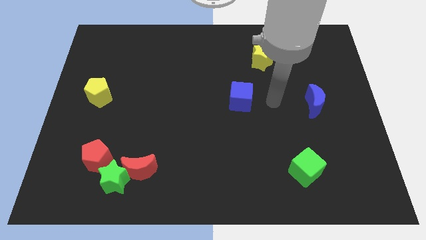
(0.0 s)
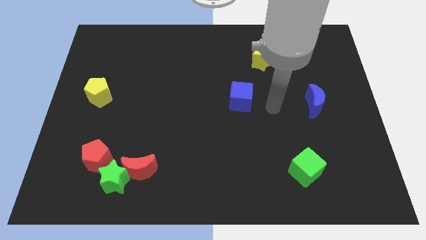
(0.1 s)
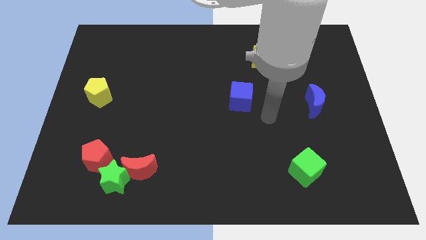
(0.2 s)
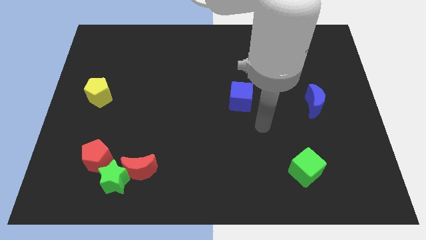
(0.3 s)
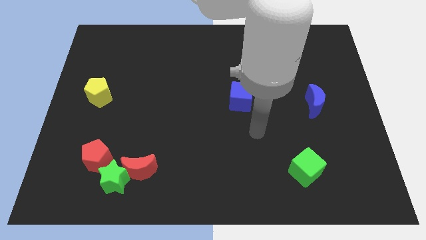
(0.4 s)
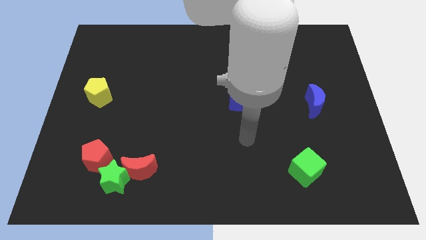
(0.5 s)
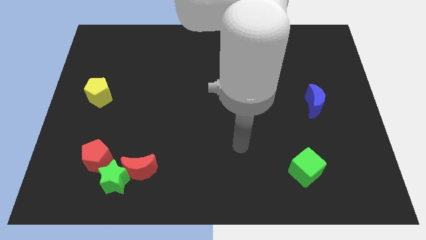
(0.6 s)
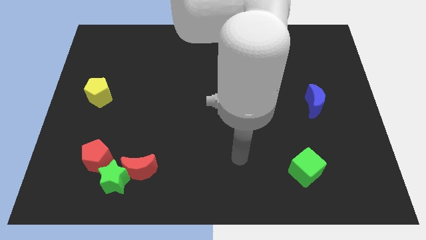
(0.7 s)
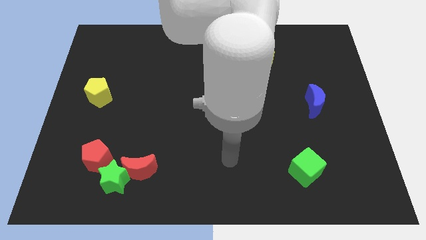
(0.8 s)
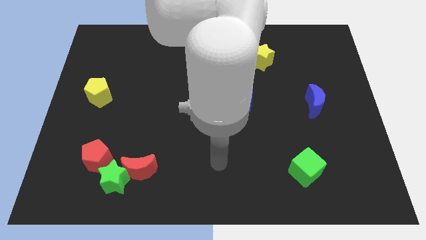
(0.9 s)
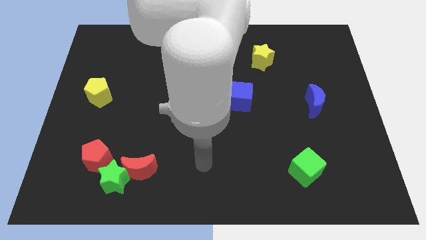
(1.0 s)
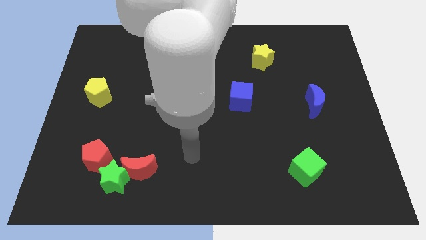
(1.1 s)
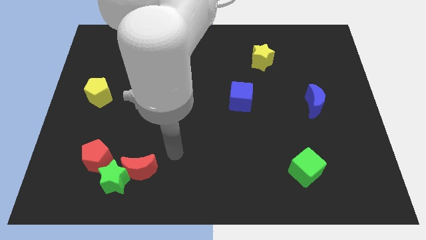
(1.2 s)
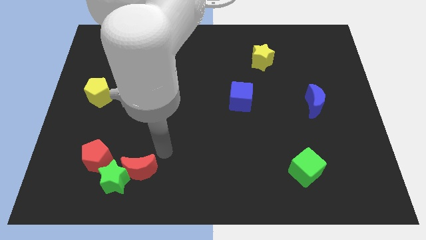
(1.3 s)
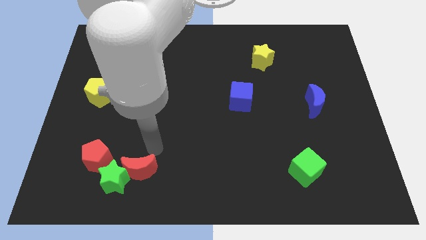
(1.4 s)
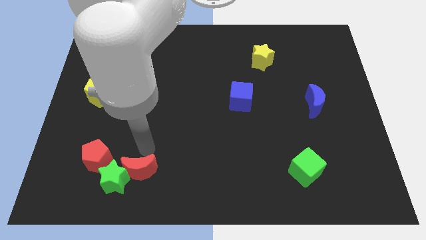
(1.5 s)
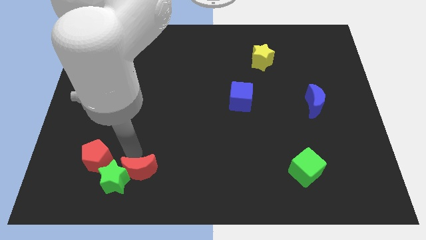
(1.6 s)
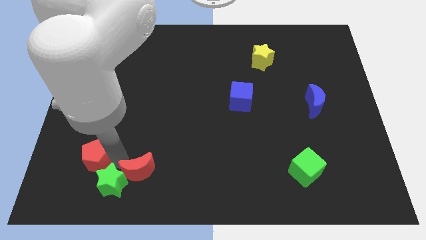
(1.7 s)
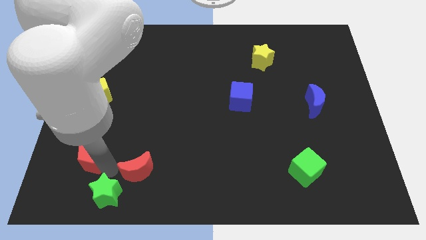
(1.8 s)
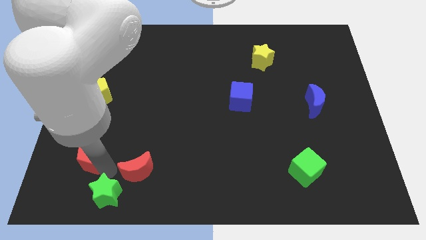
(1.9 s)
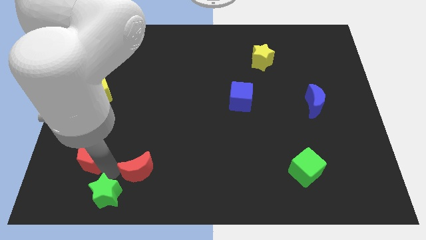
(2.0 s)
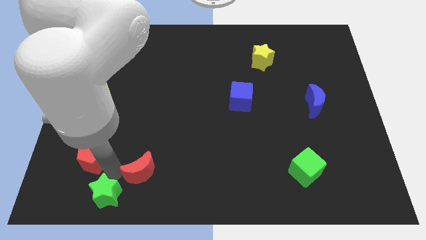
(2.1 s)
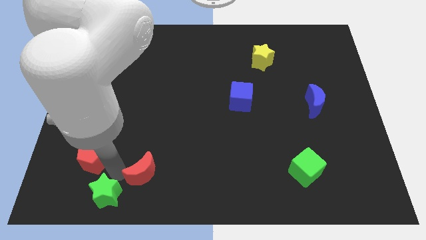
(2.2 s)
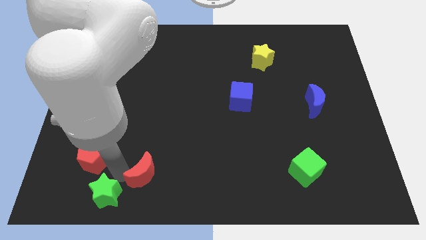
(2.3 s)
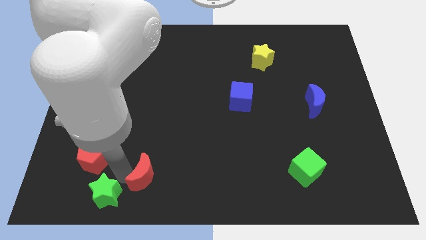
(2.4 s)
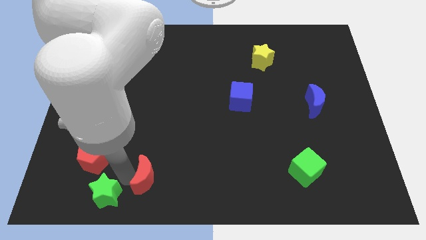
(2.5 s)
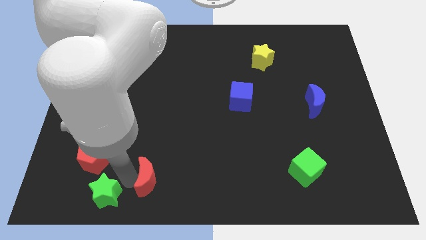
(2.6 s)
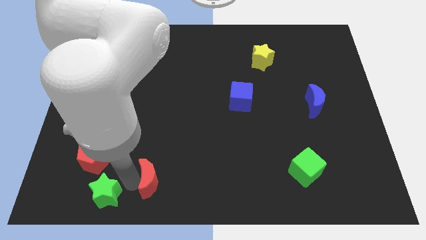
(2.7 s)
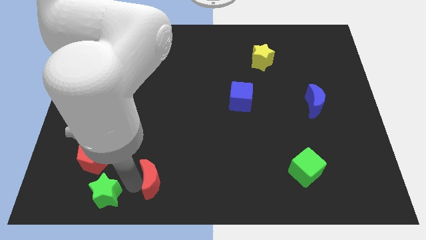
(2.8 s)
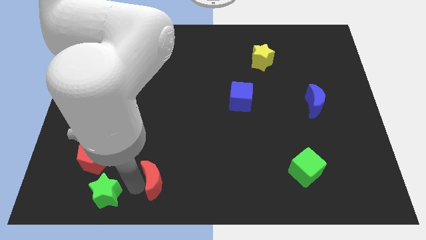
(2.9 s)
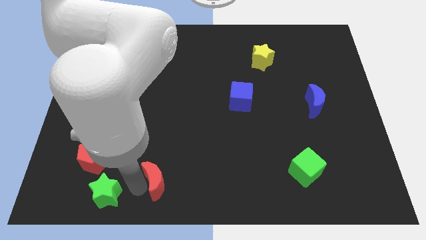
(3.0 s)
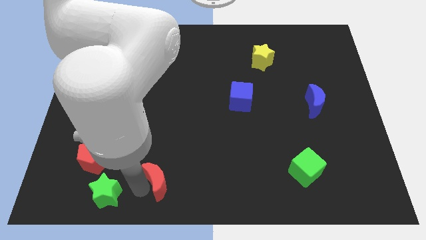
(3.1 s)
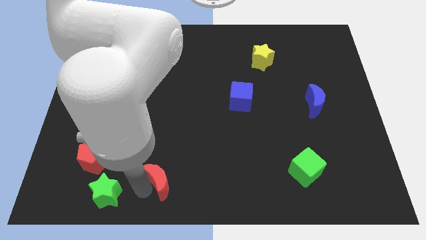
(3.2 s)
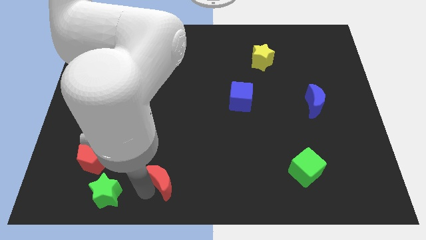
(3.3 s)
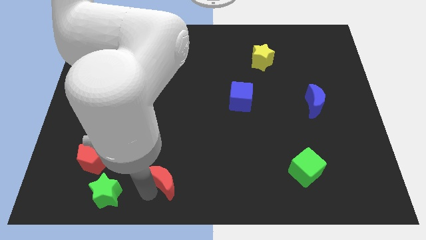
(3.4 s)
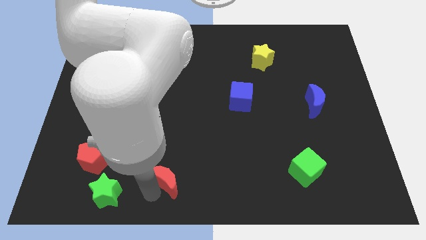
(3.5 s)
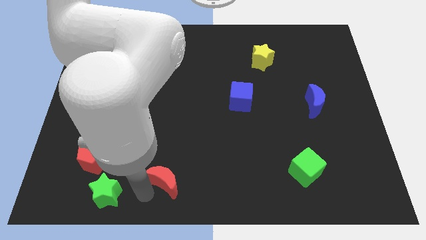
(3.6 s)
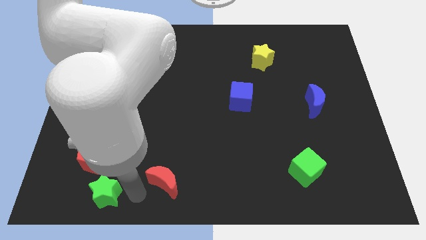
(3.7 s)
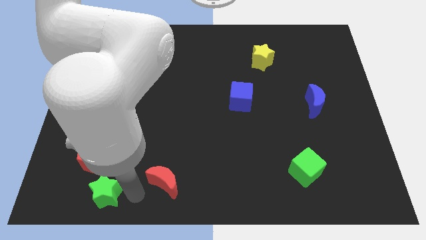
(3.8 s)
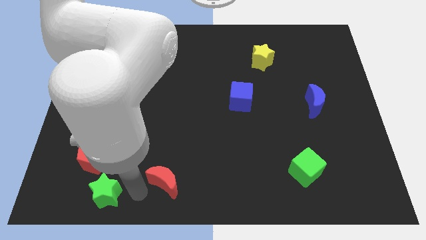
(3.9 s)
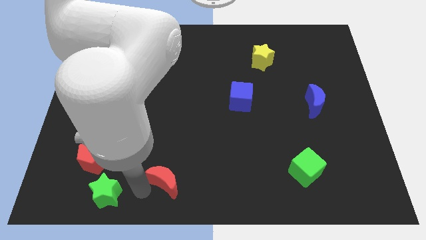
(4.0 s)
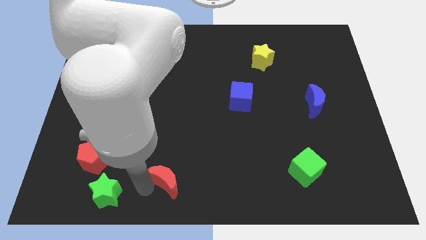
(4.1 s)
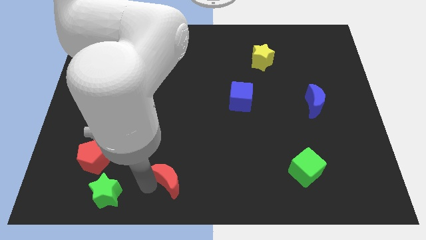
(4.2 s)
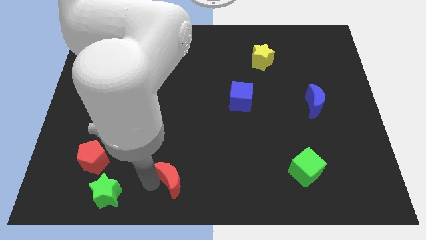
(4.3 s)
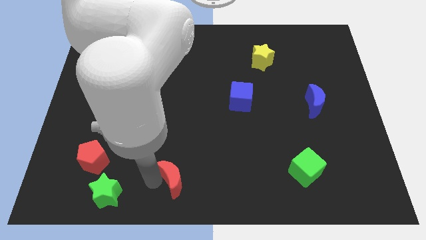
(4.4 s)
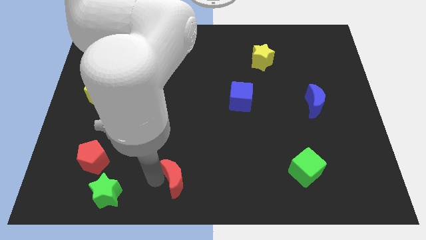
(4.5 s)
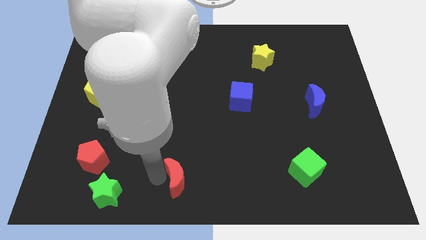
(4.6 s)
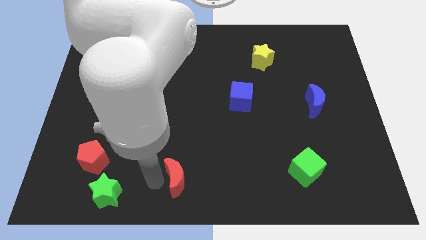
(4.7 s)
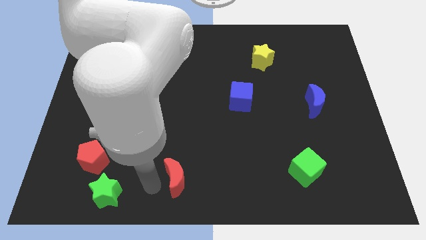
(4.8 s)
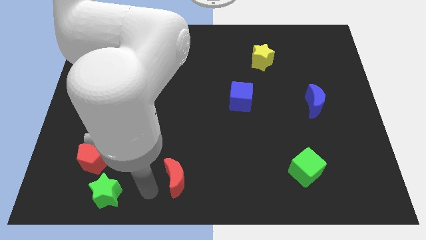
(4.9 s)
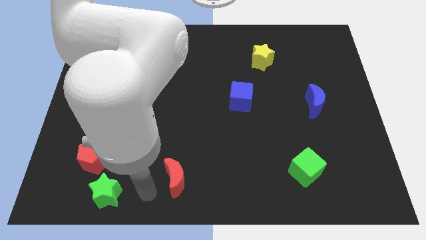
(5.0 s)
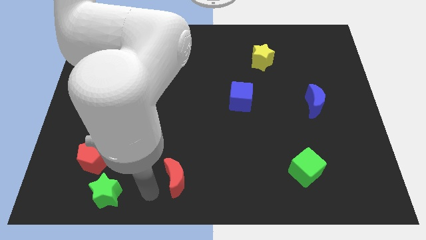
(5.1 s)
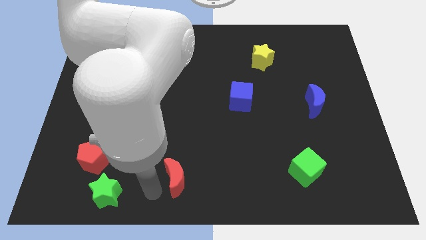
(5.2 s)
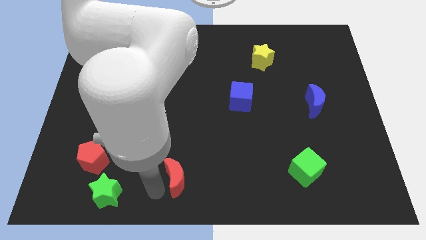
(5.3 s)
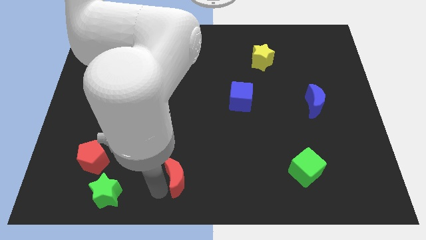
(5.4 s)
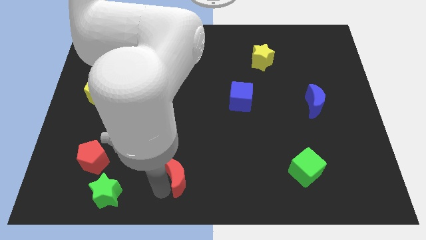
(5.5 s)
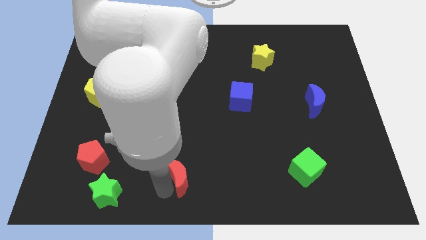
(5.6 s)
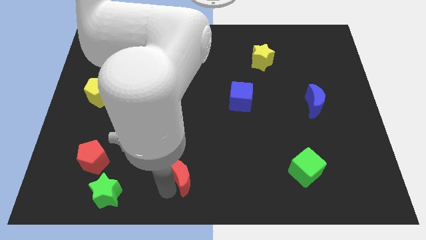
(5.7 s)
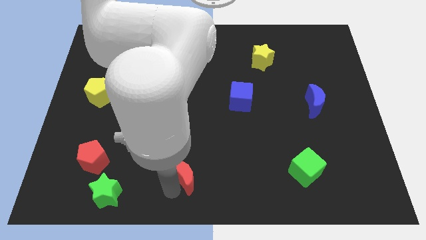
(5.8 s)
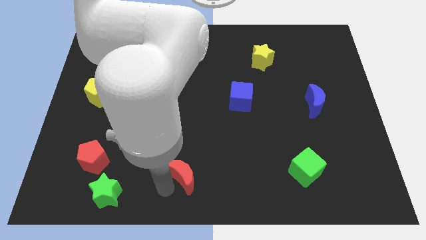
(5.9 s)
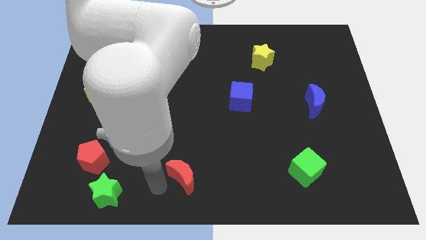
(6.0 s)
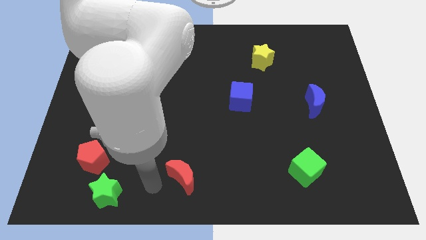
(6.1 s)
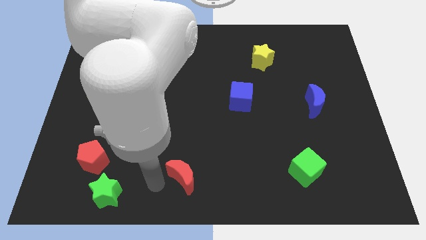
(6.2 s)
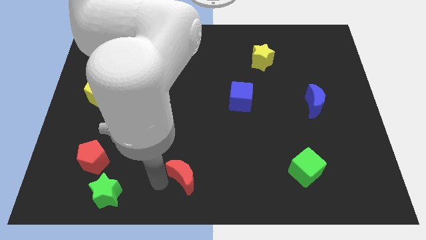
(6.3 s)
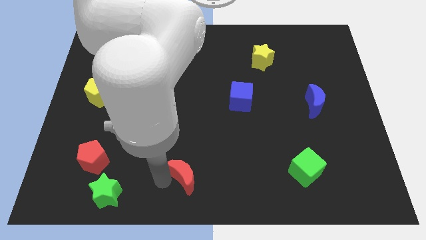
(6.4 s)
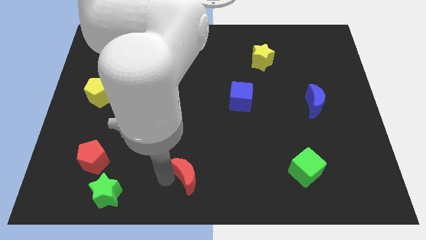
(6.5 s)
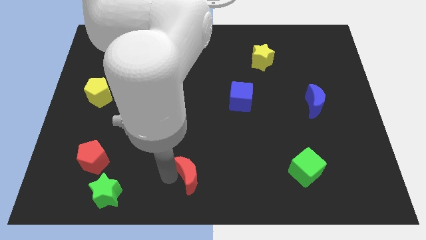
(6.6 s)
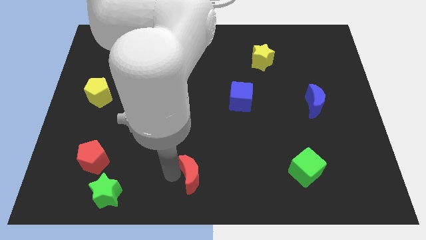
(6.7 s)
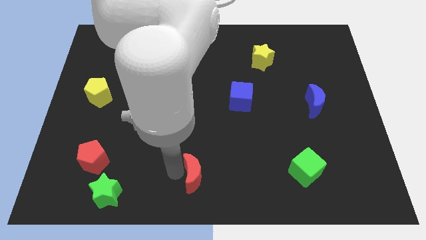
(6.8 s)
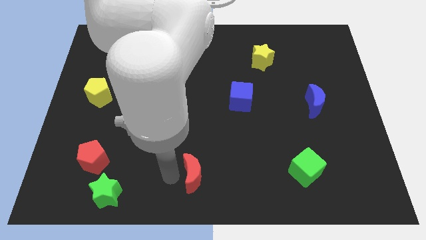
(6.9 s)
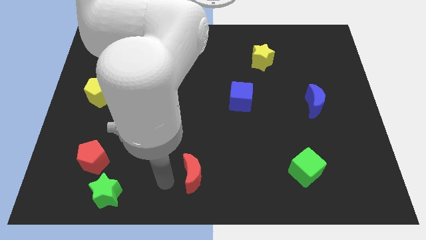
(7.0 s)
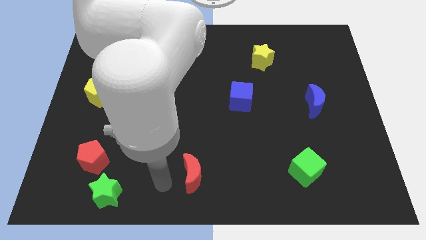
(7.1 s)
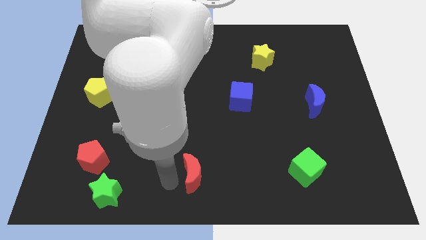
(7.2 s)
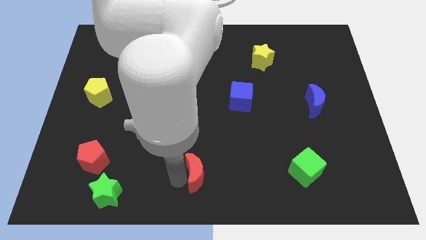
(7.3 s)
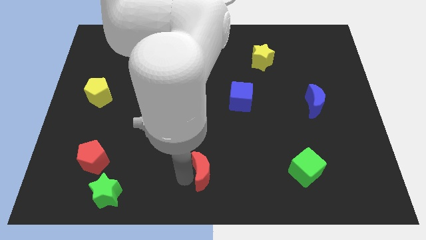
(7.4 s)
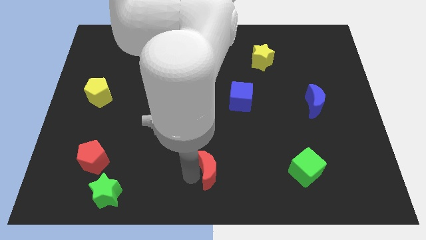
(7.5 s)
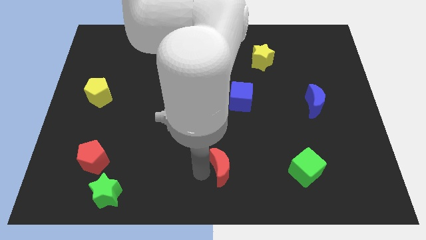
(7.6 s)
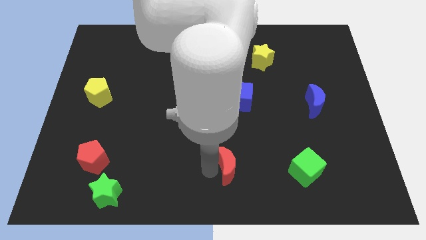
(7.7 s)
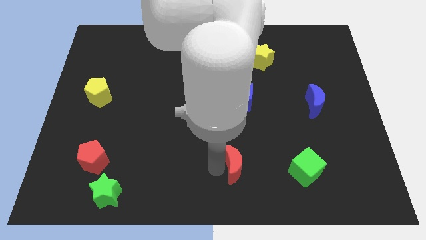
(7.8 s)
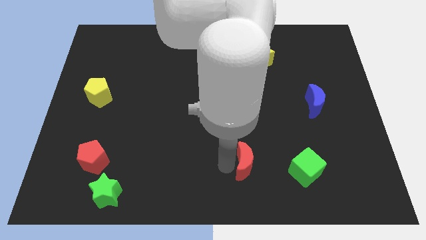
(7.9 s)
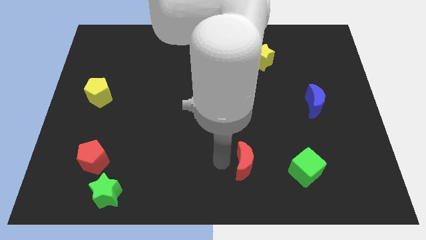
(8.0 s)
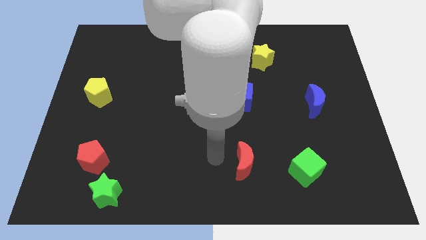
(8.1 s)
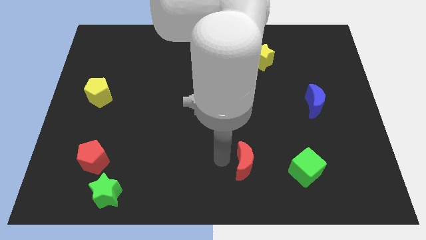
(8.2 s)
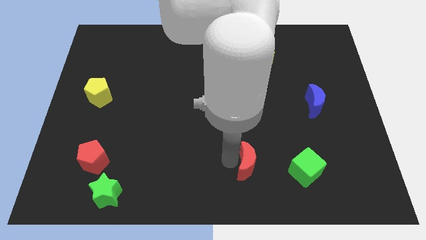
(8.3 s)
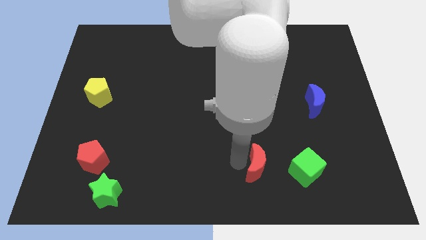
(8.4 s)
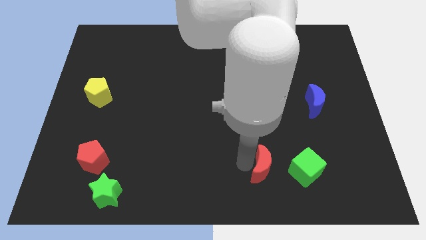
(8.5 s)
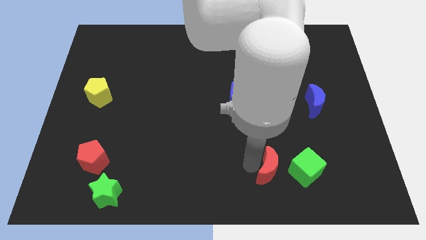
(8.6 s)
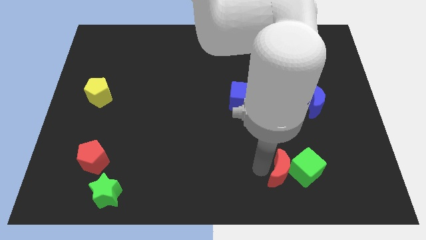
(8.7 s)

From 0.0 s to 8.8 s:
move the red moon next to the green cube
